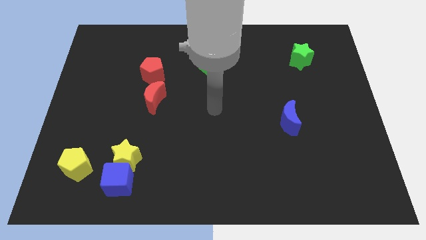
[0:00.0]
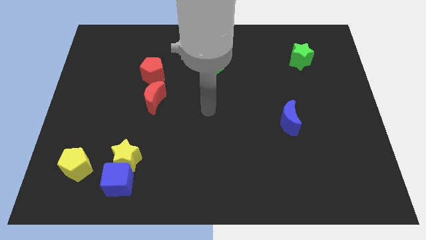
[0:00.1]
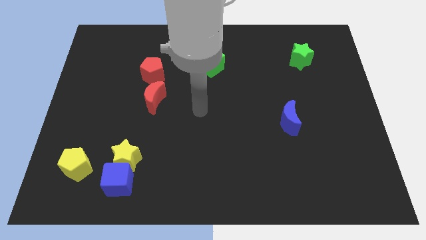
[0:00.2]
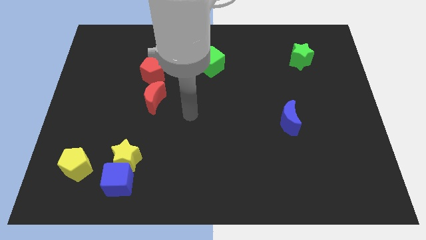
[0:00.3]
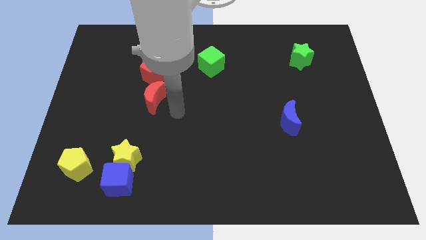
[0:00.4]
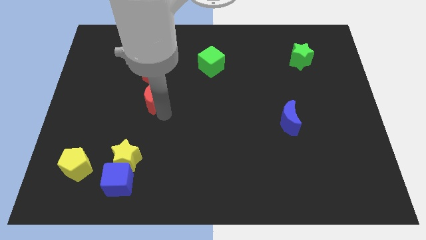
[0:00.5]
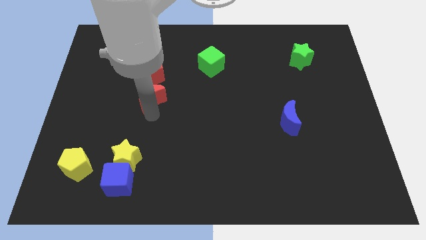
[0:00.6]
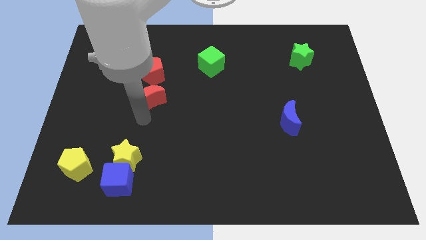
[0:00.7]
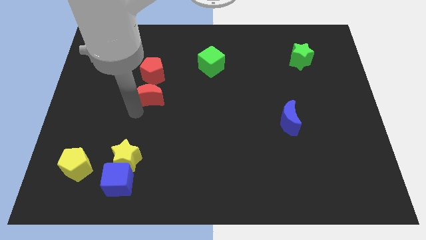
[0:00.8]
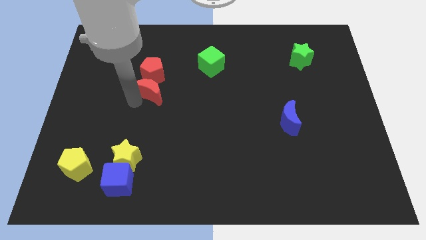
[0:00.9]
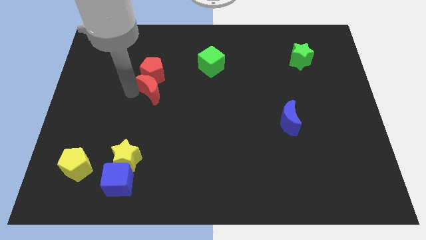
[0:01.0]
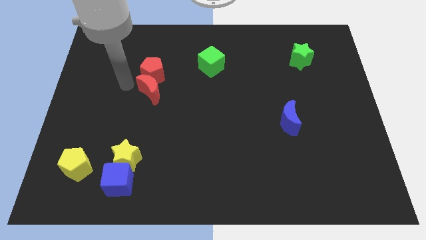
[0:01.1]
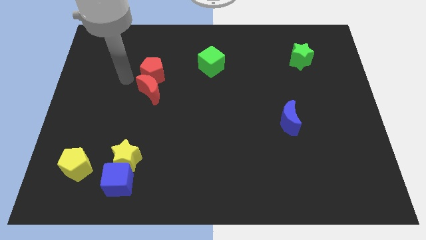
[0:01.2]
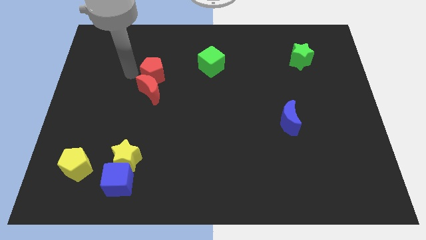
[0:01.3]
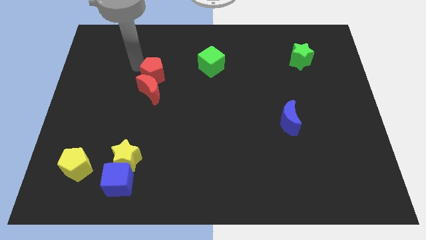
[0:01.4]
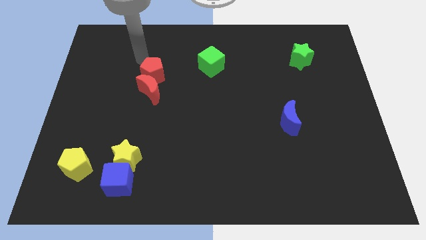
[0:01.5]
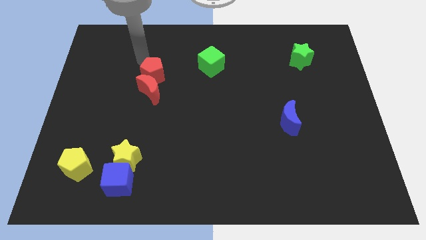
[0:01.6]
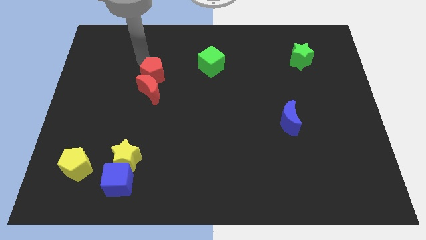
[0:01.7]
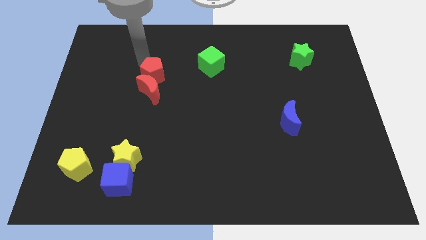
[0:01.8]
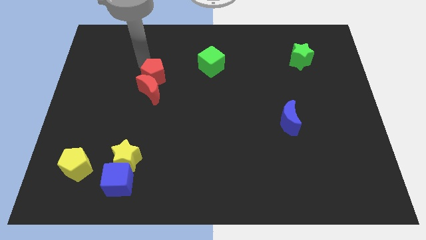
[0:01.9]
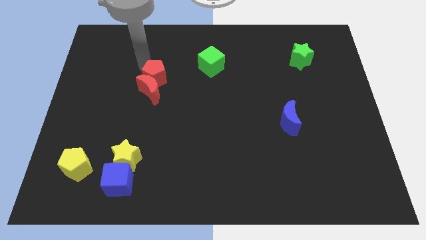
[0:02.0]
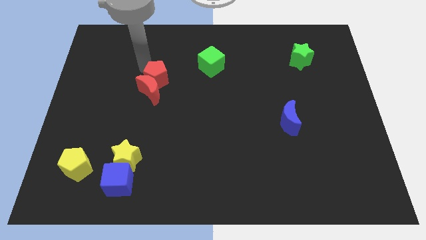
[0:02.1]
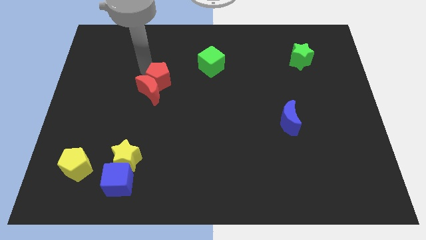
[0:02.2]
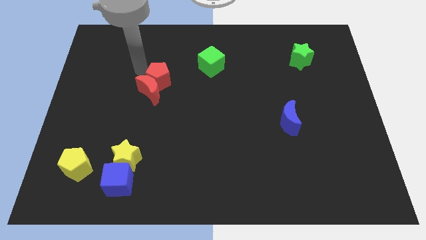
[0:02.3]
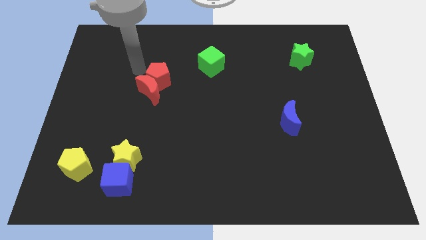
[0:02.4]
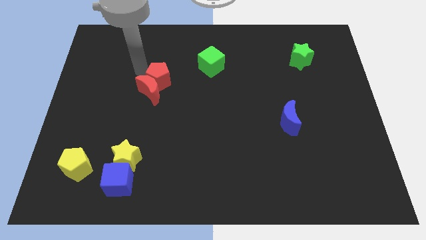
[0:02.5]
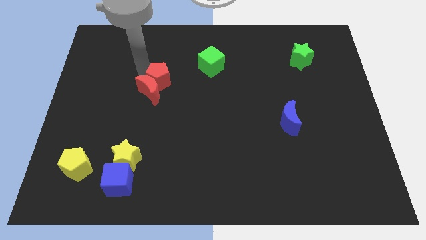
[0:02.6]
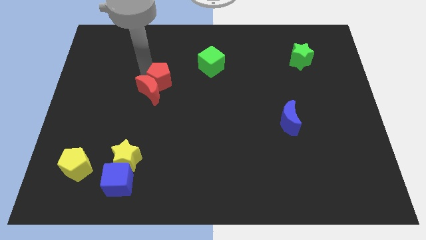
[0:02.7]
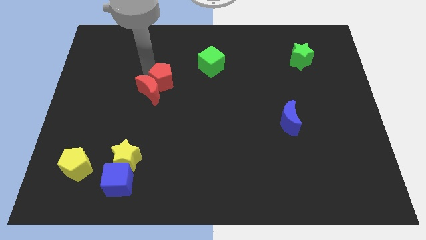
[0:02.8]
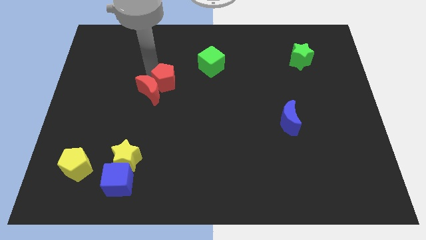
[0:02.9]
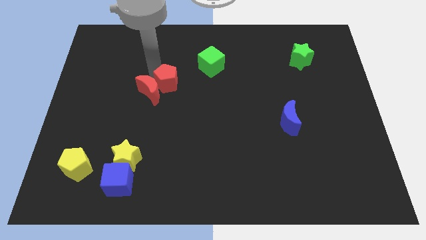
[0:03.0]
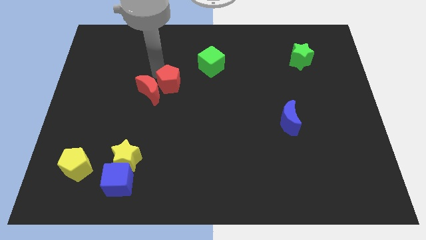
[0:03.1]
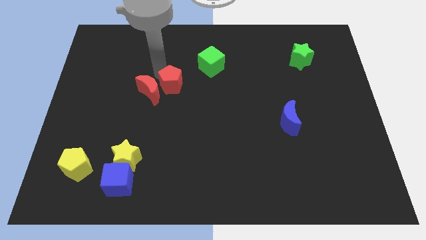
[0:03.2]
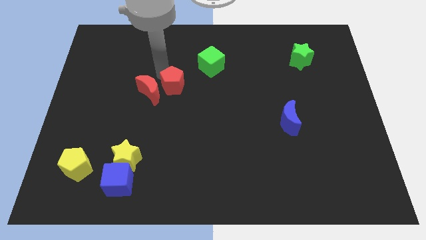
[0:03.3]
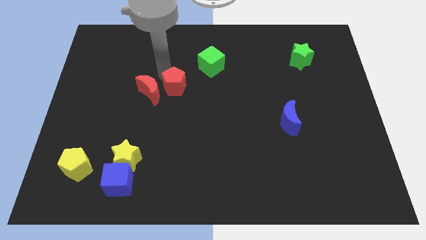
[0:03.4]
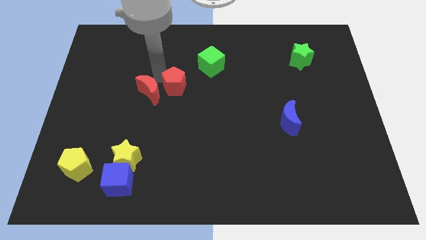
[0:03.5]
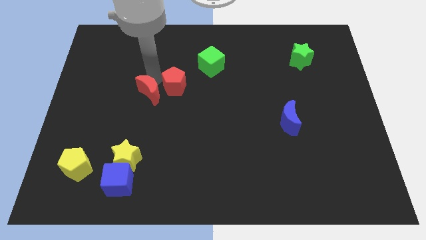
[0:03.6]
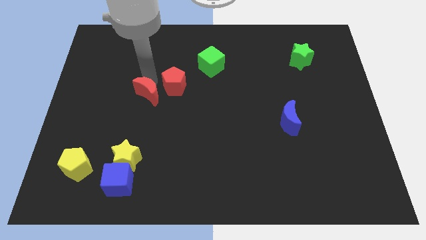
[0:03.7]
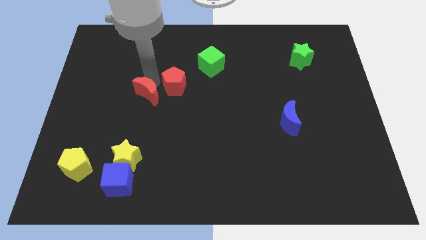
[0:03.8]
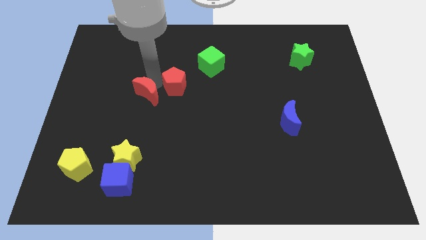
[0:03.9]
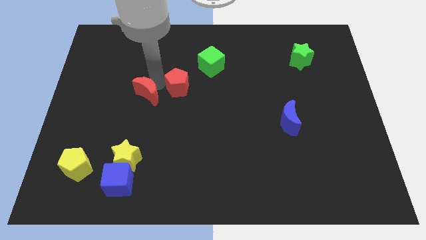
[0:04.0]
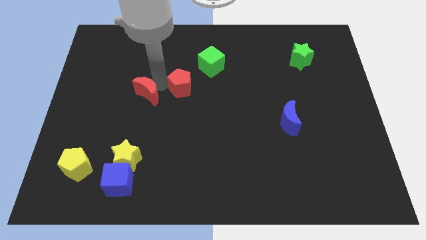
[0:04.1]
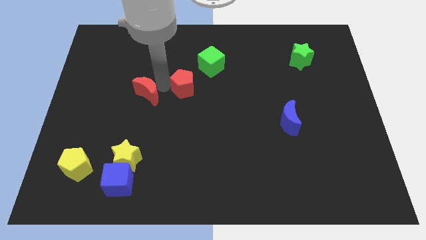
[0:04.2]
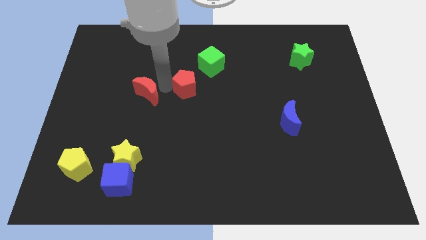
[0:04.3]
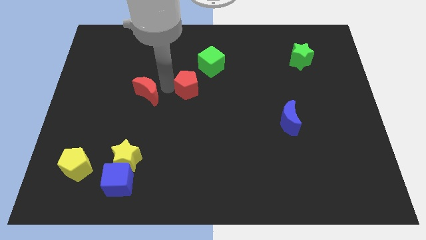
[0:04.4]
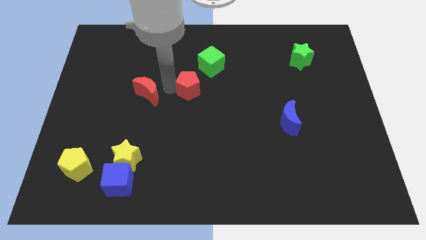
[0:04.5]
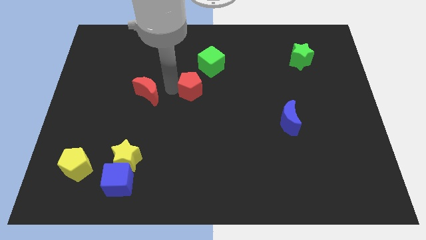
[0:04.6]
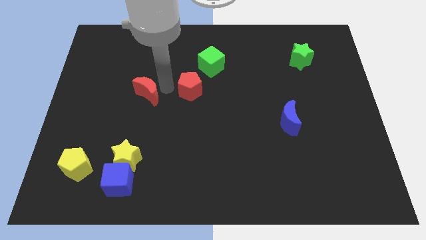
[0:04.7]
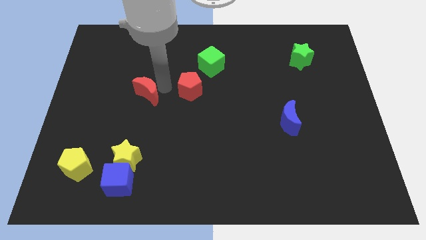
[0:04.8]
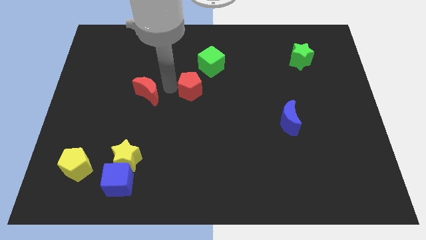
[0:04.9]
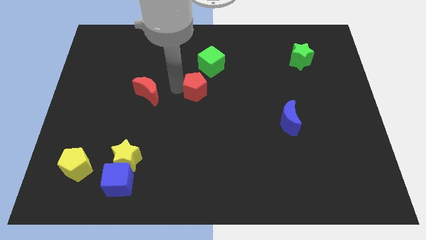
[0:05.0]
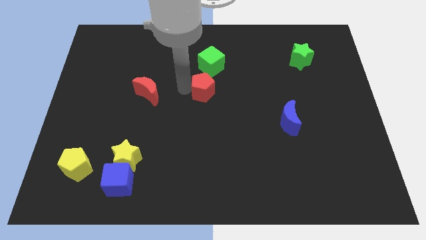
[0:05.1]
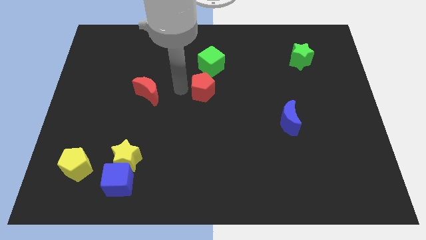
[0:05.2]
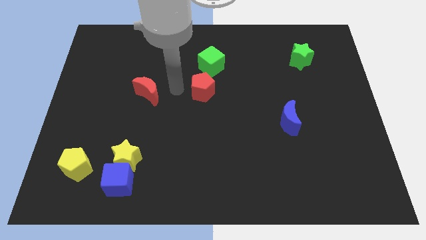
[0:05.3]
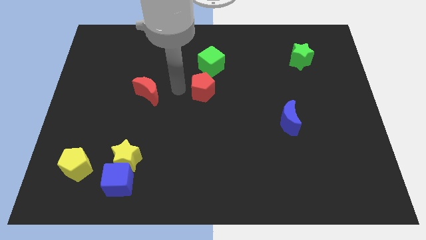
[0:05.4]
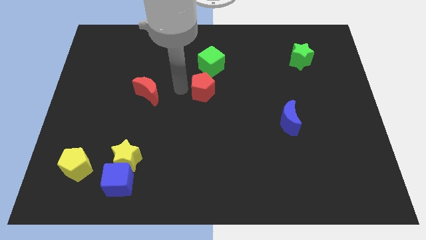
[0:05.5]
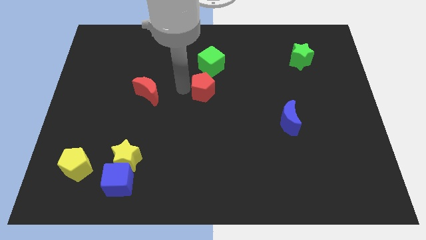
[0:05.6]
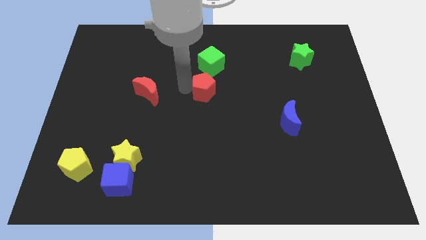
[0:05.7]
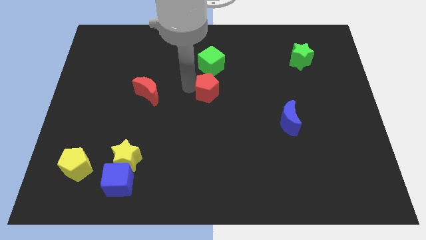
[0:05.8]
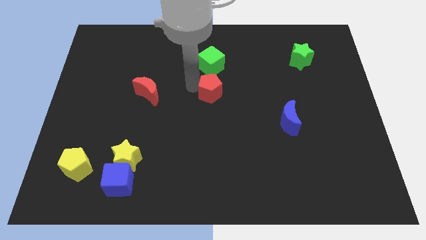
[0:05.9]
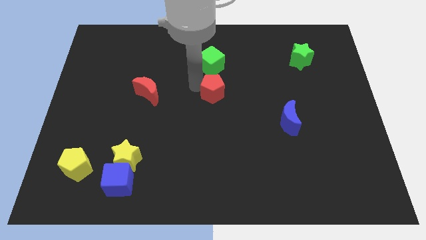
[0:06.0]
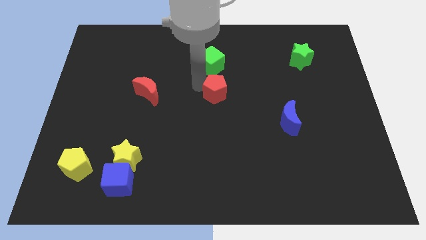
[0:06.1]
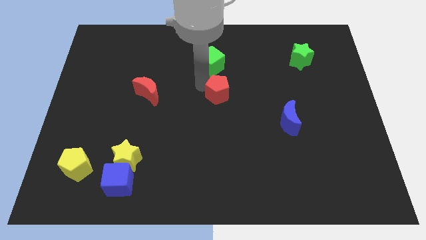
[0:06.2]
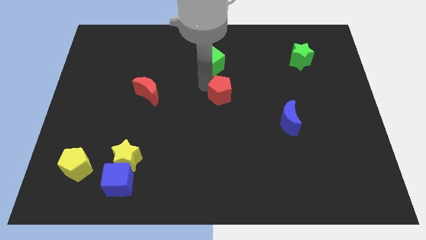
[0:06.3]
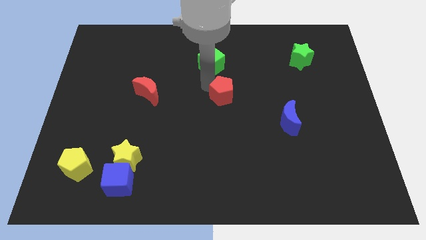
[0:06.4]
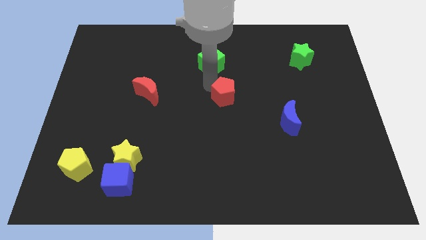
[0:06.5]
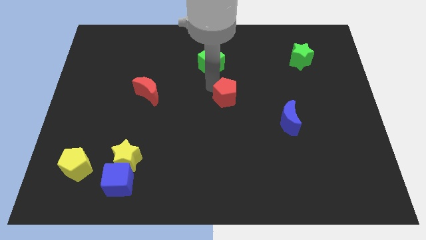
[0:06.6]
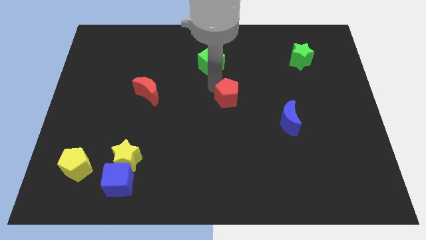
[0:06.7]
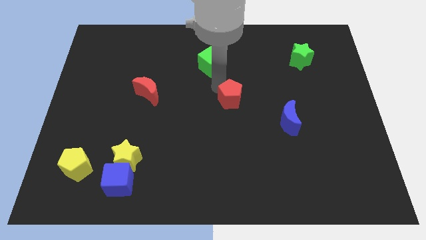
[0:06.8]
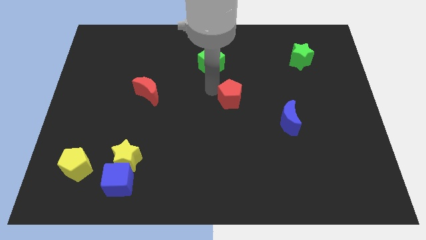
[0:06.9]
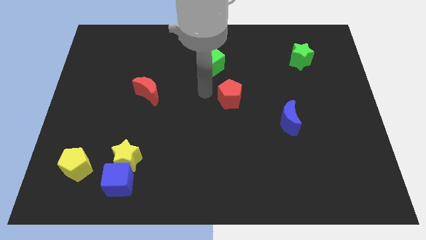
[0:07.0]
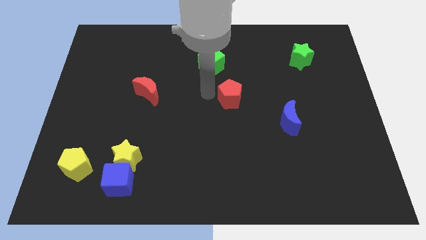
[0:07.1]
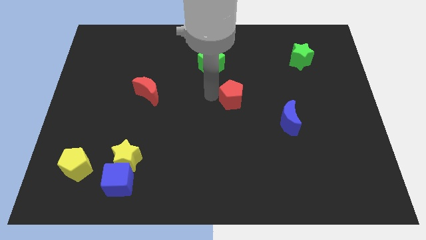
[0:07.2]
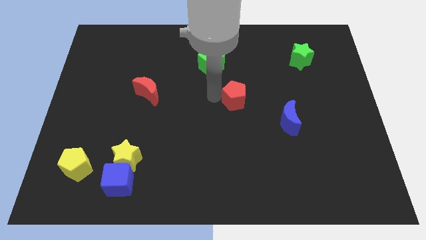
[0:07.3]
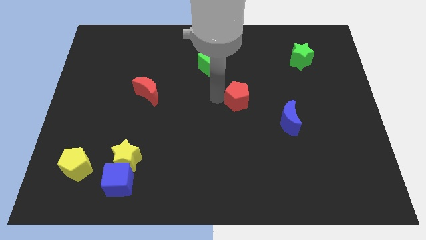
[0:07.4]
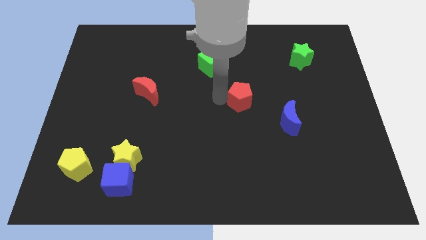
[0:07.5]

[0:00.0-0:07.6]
push the red pentagon to the top left of the blue moon

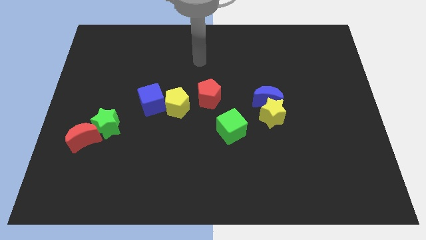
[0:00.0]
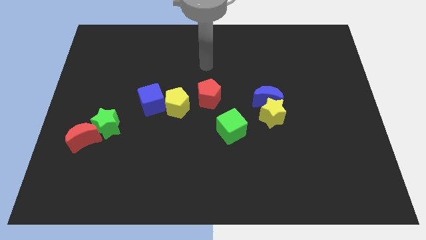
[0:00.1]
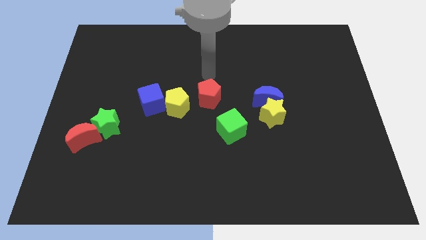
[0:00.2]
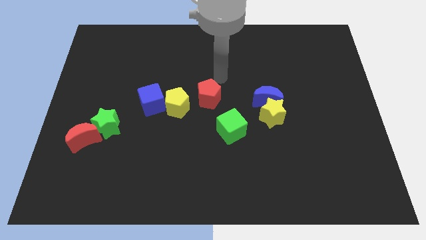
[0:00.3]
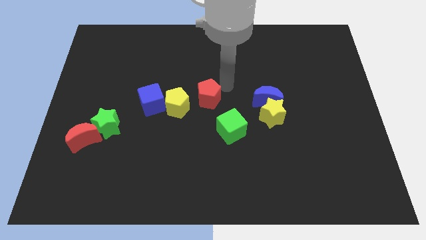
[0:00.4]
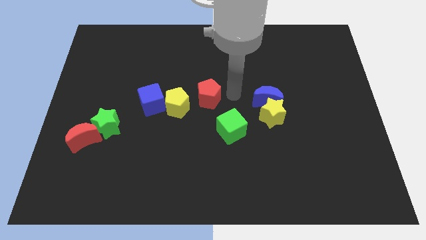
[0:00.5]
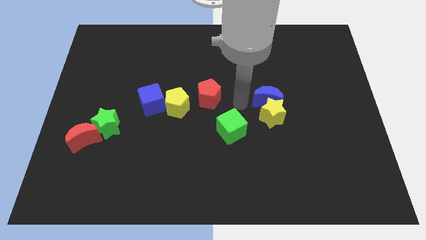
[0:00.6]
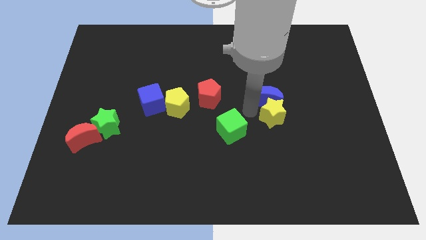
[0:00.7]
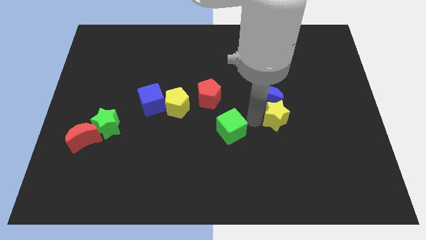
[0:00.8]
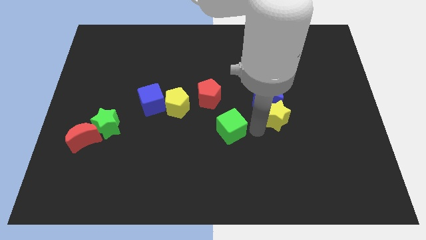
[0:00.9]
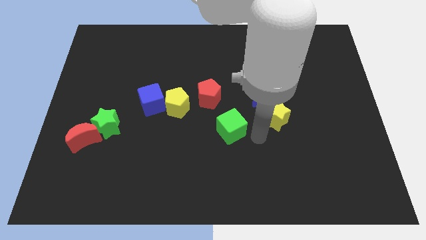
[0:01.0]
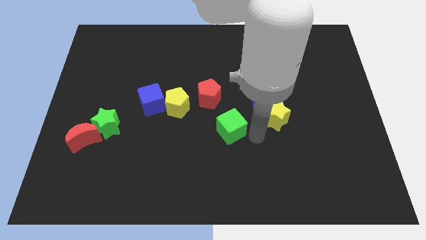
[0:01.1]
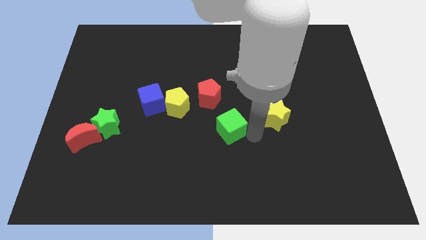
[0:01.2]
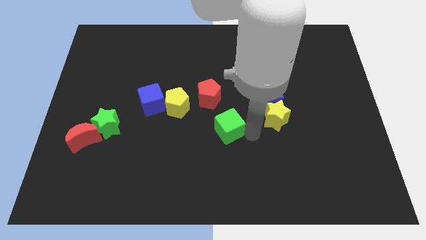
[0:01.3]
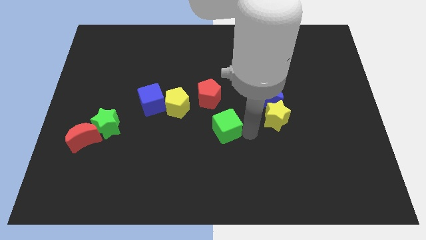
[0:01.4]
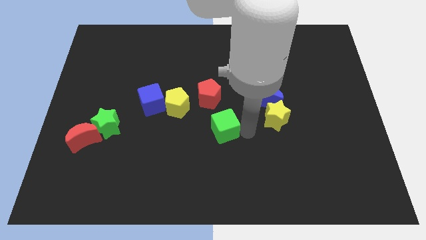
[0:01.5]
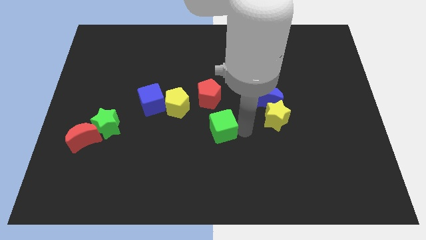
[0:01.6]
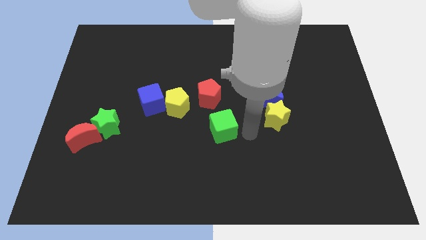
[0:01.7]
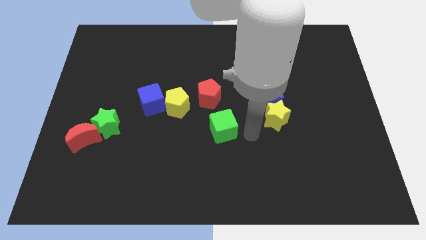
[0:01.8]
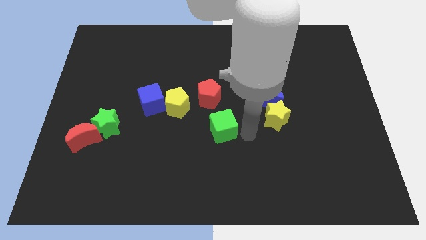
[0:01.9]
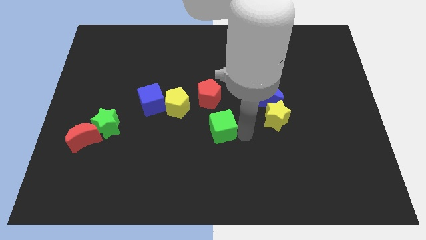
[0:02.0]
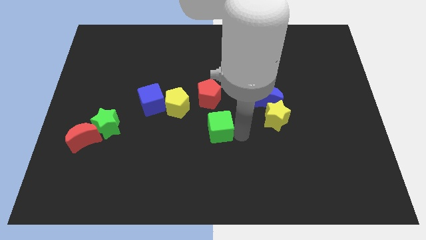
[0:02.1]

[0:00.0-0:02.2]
move the green cube diagonally down and to the right of the yellow pentagon
